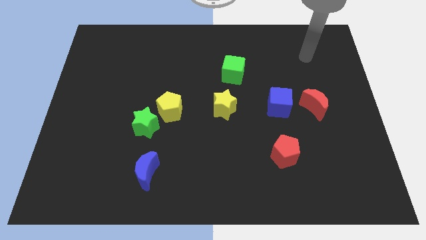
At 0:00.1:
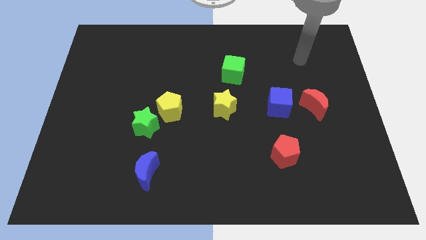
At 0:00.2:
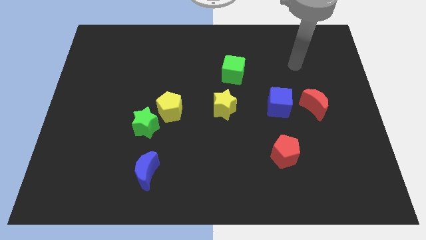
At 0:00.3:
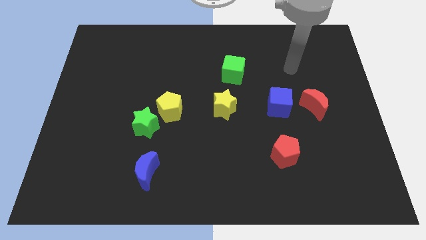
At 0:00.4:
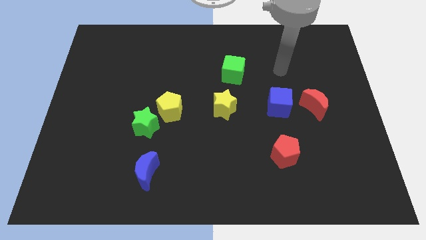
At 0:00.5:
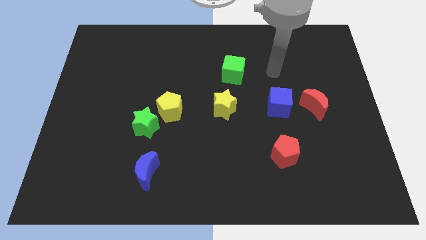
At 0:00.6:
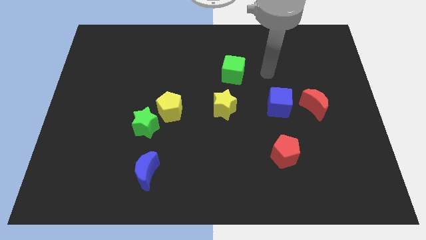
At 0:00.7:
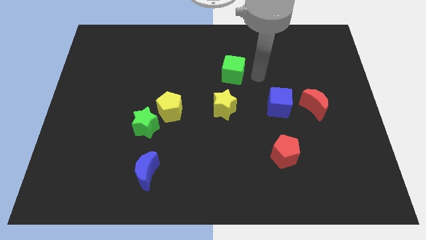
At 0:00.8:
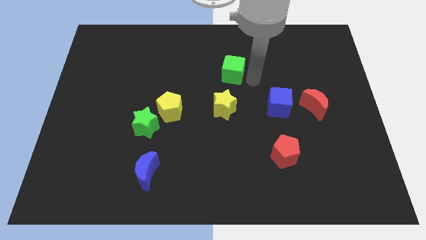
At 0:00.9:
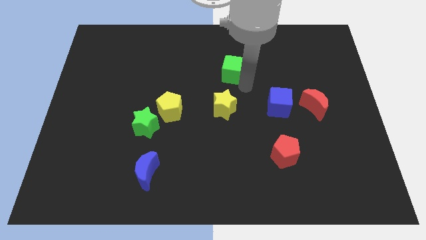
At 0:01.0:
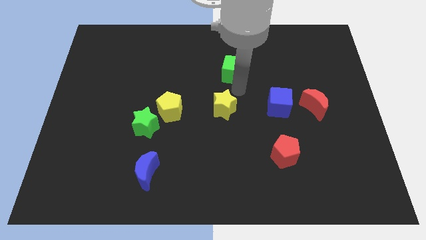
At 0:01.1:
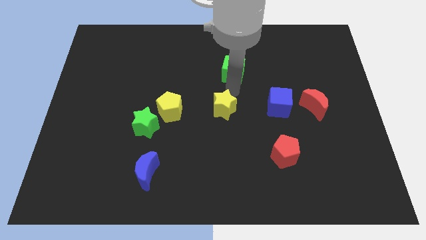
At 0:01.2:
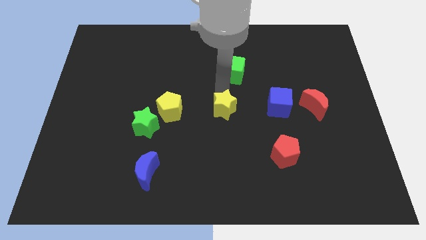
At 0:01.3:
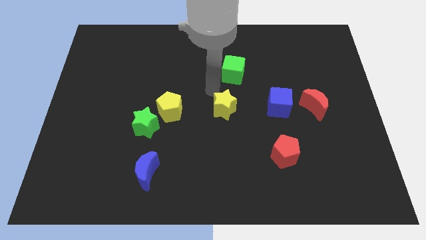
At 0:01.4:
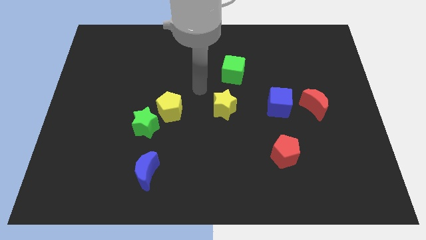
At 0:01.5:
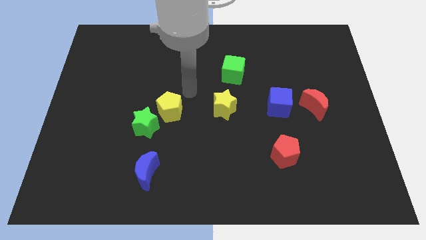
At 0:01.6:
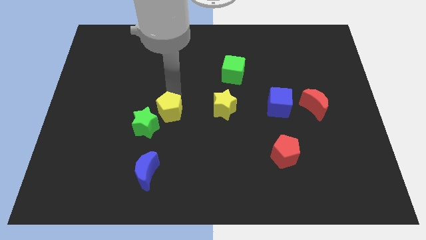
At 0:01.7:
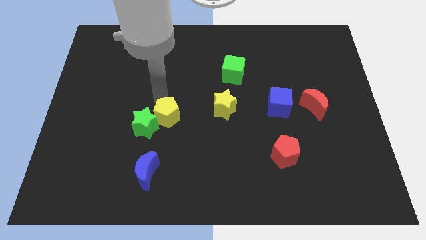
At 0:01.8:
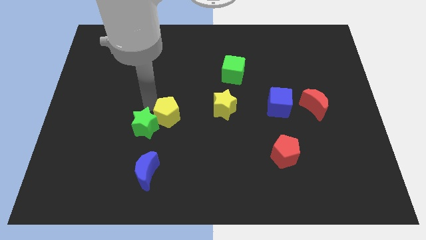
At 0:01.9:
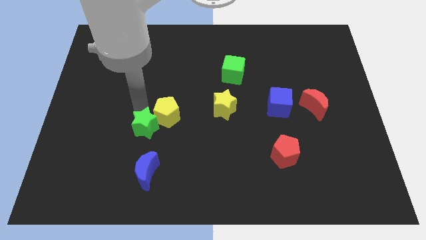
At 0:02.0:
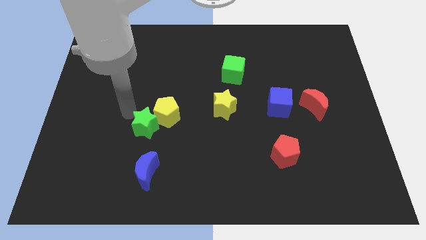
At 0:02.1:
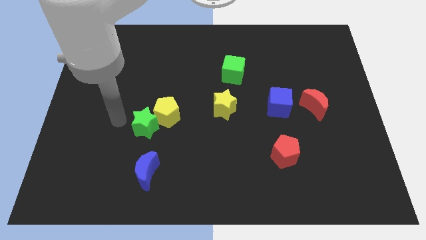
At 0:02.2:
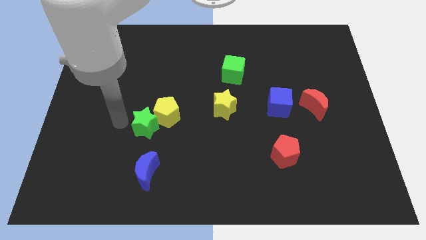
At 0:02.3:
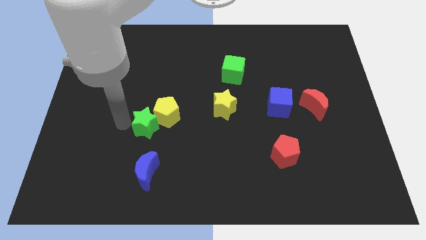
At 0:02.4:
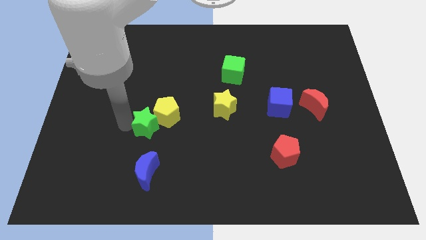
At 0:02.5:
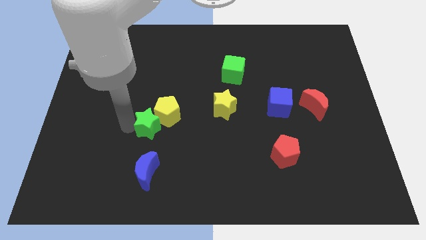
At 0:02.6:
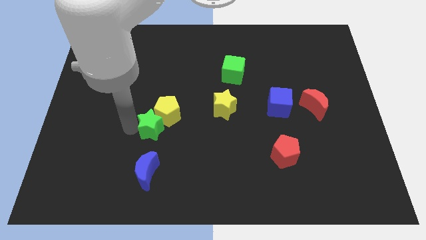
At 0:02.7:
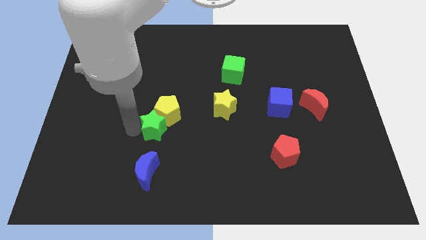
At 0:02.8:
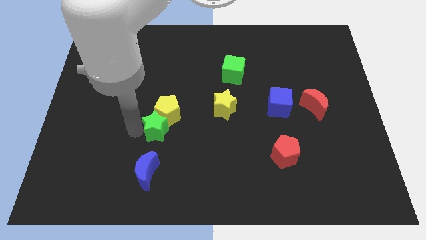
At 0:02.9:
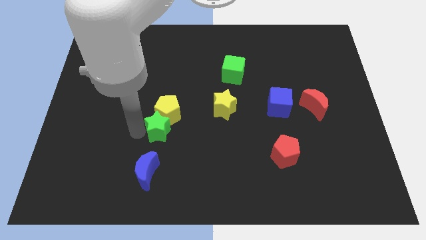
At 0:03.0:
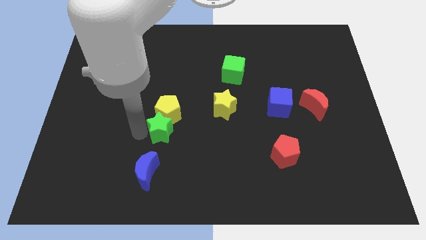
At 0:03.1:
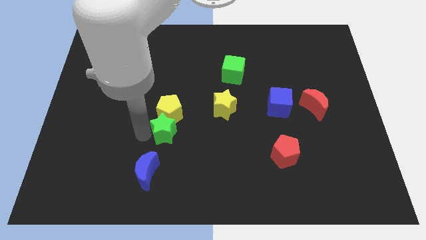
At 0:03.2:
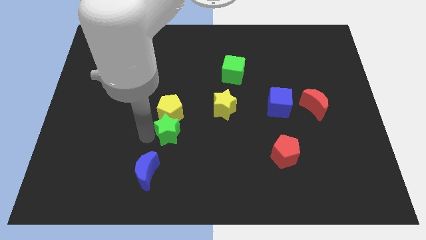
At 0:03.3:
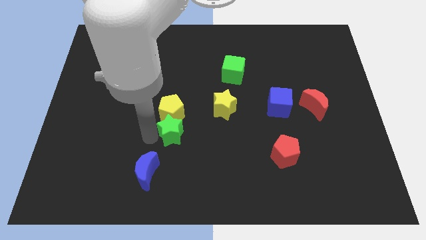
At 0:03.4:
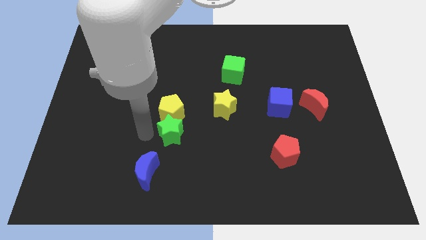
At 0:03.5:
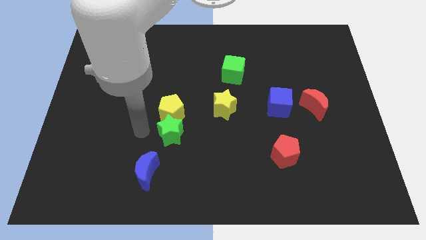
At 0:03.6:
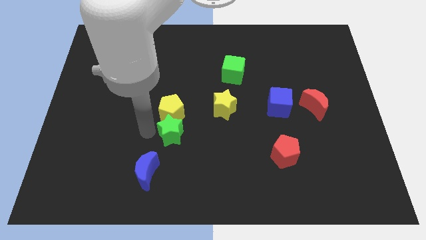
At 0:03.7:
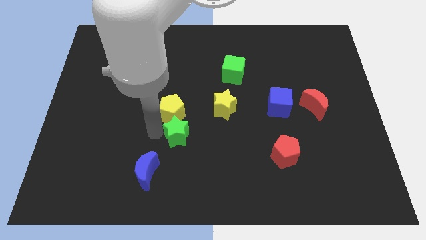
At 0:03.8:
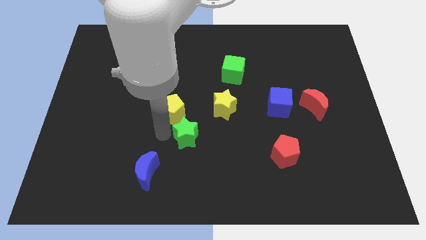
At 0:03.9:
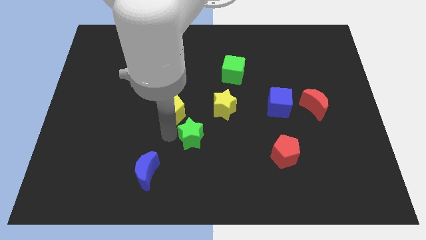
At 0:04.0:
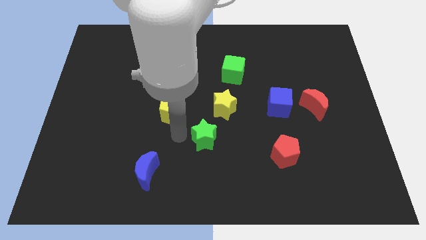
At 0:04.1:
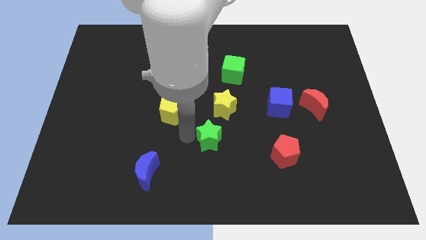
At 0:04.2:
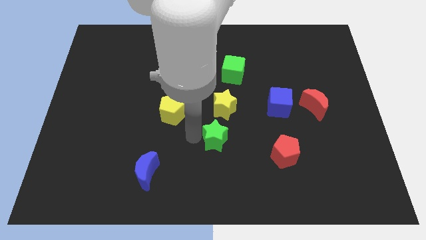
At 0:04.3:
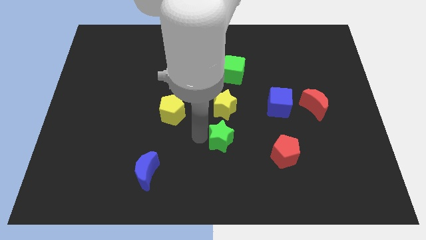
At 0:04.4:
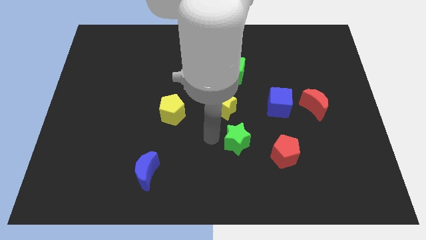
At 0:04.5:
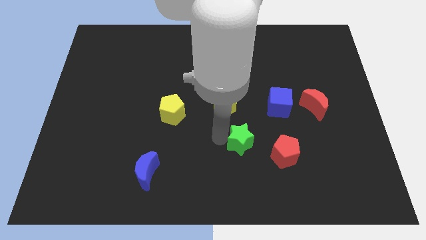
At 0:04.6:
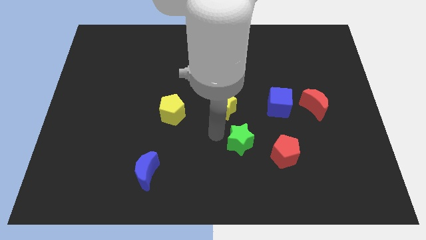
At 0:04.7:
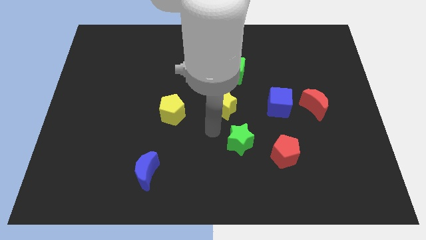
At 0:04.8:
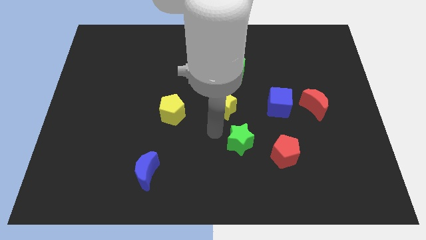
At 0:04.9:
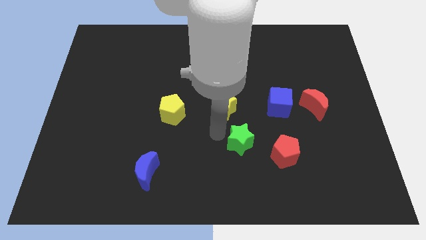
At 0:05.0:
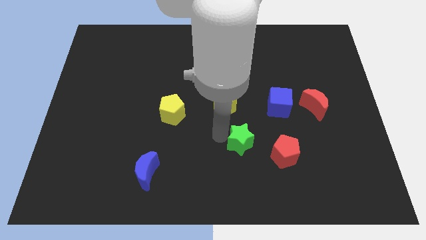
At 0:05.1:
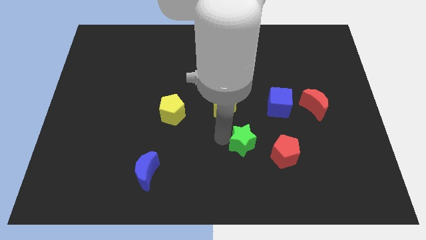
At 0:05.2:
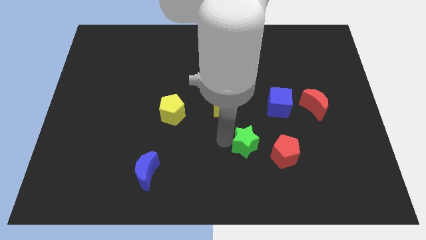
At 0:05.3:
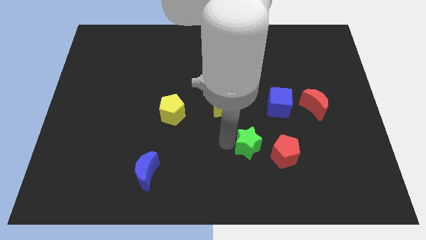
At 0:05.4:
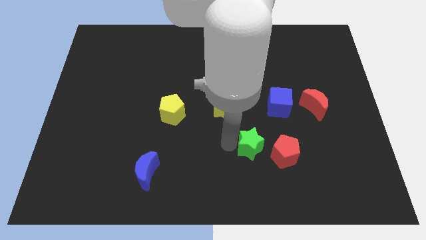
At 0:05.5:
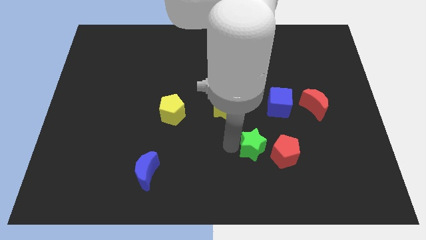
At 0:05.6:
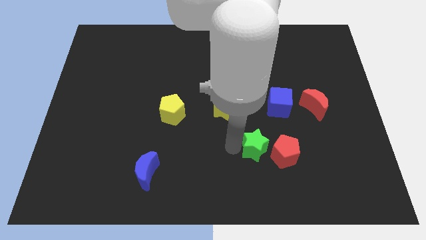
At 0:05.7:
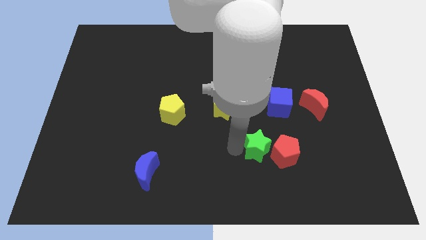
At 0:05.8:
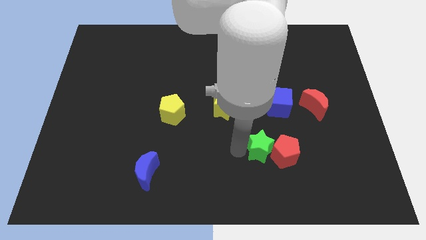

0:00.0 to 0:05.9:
put the green star to the red pentagon

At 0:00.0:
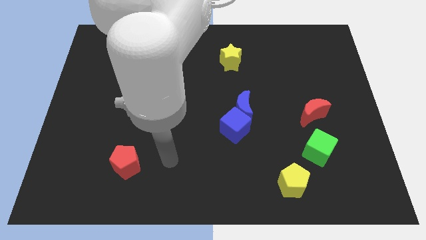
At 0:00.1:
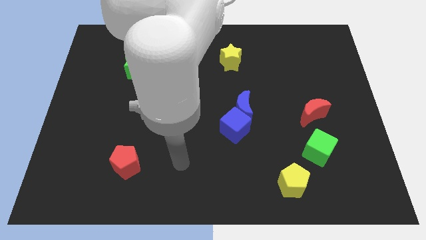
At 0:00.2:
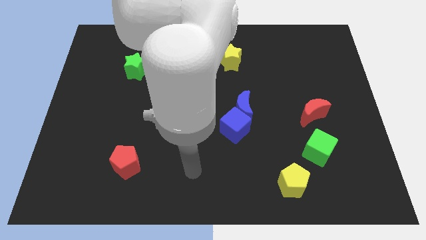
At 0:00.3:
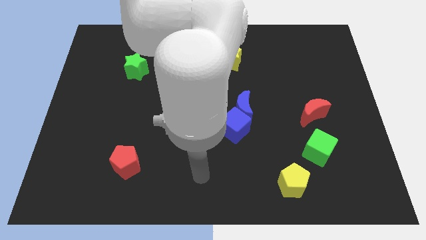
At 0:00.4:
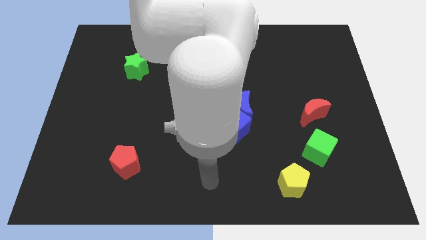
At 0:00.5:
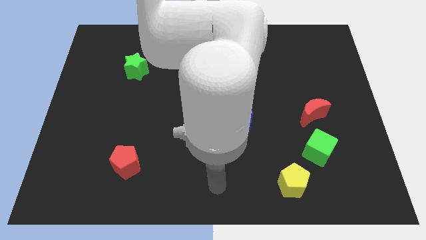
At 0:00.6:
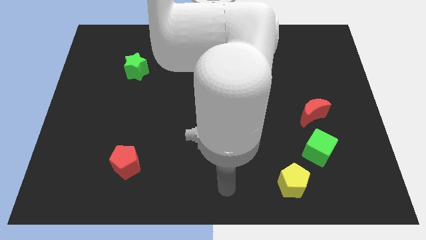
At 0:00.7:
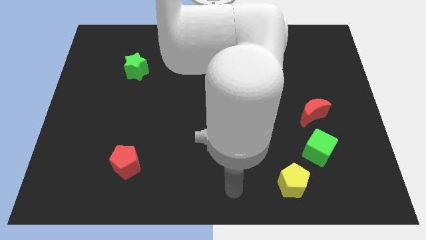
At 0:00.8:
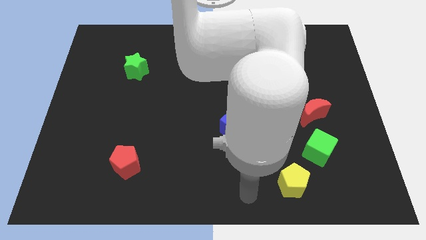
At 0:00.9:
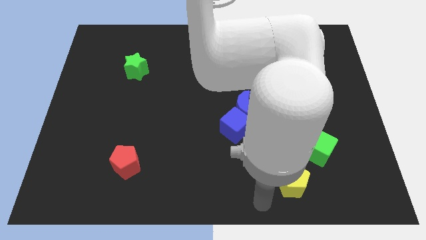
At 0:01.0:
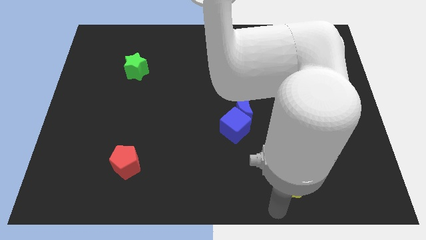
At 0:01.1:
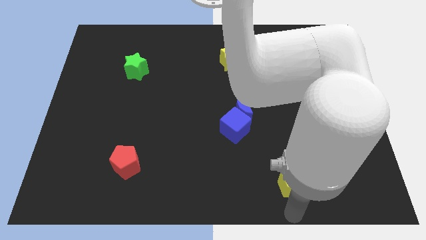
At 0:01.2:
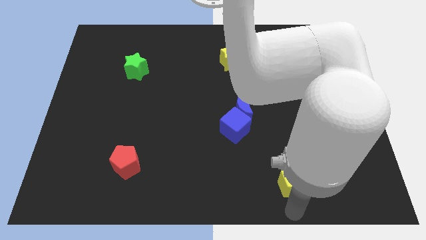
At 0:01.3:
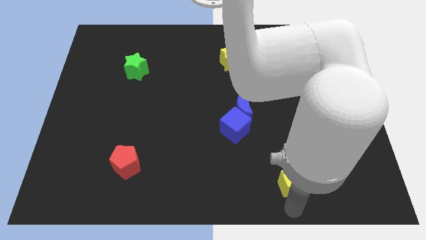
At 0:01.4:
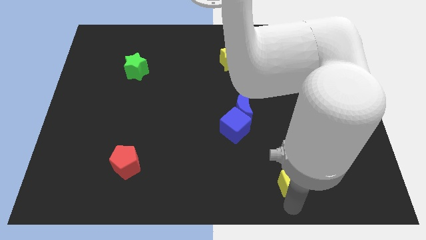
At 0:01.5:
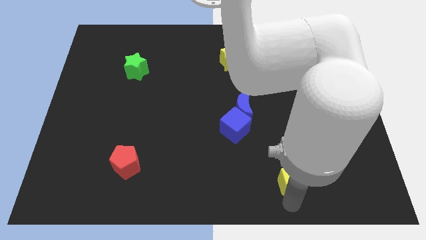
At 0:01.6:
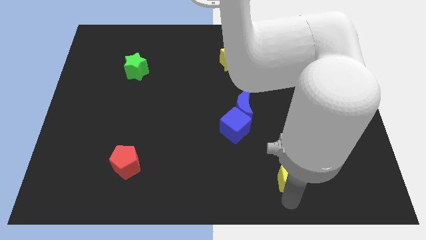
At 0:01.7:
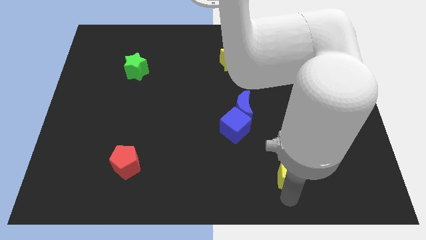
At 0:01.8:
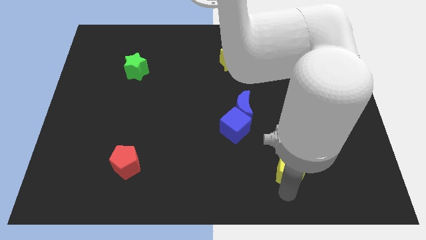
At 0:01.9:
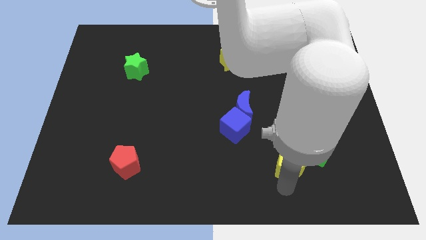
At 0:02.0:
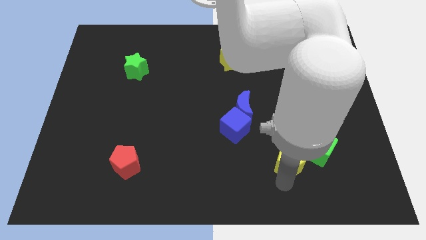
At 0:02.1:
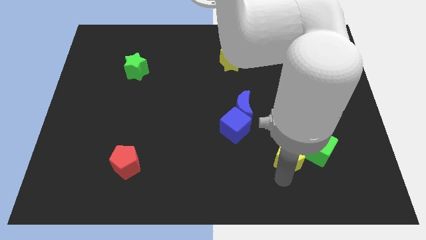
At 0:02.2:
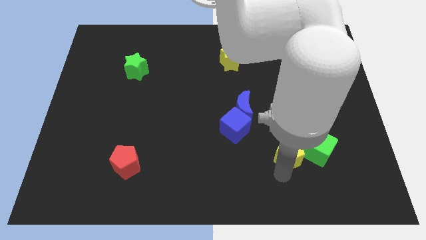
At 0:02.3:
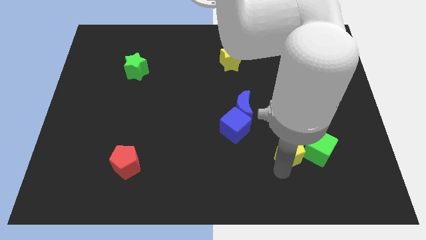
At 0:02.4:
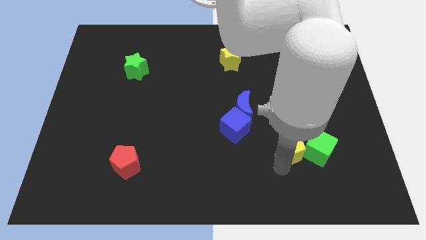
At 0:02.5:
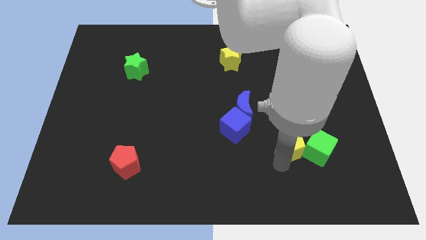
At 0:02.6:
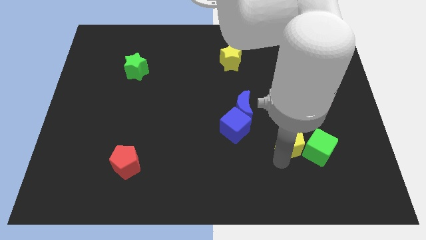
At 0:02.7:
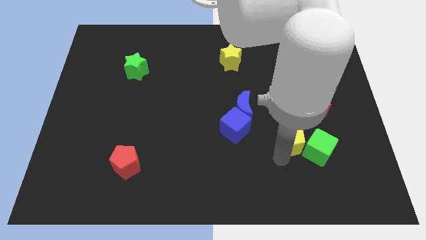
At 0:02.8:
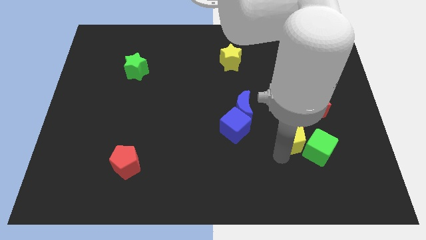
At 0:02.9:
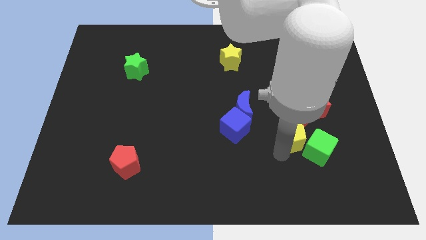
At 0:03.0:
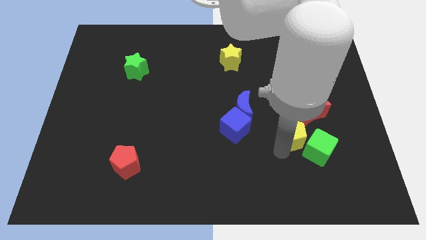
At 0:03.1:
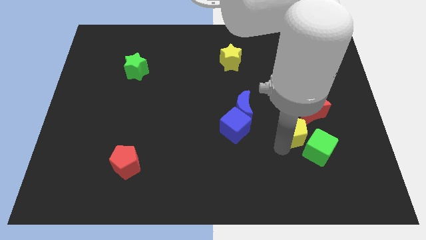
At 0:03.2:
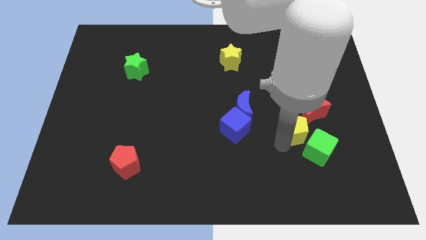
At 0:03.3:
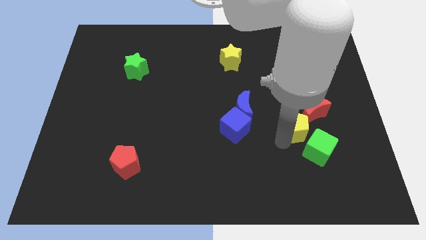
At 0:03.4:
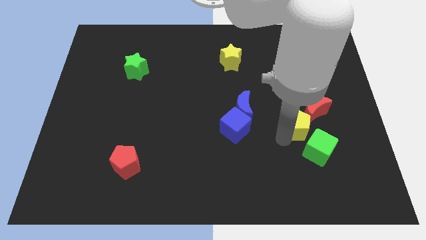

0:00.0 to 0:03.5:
put the yellow pentagon towards the red moon
